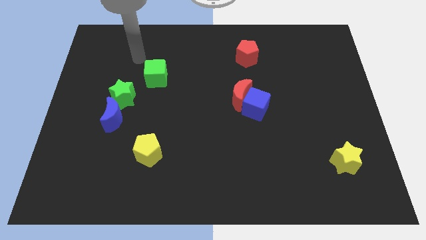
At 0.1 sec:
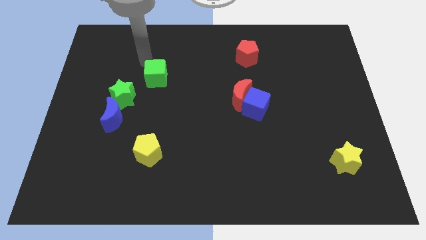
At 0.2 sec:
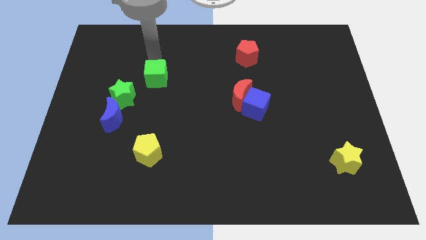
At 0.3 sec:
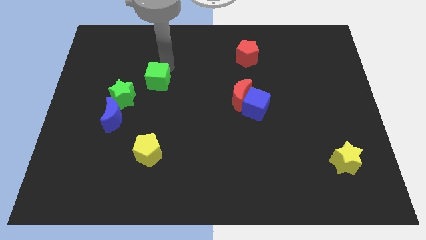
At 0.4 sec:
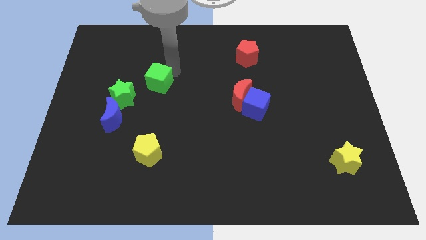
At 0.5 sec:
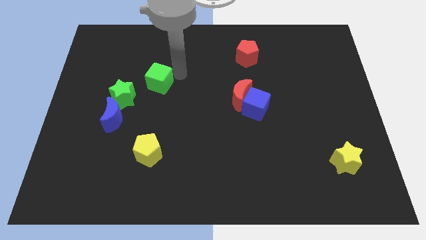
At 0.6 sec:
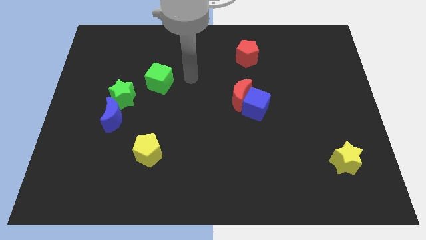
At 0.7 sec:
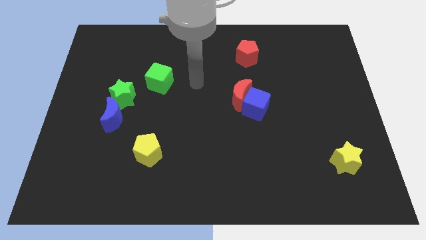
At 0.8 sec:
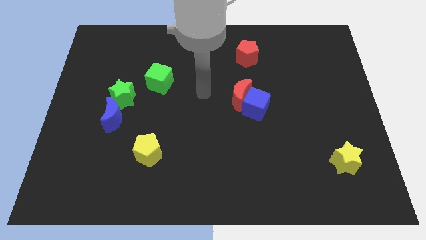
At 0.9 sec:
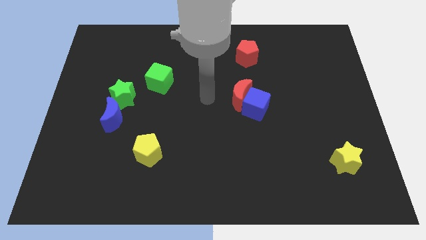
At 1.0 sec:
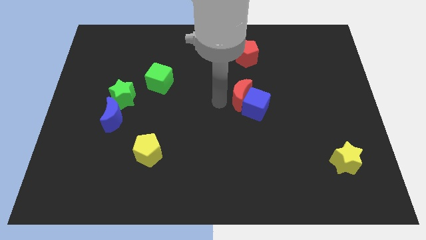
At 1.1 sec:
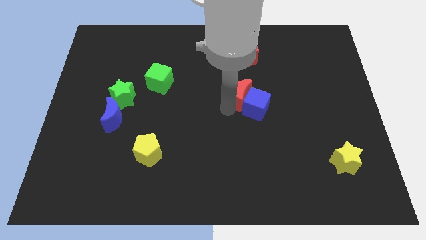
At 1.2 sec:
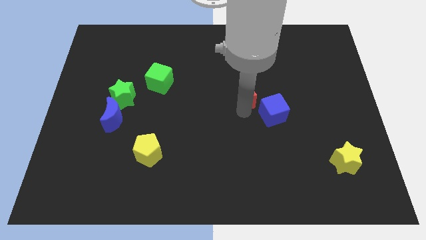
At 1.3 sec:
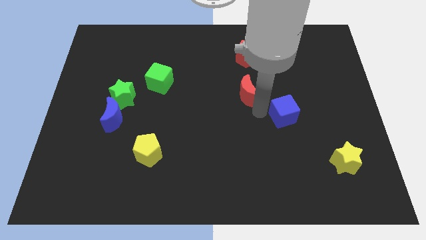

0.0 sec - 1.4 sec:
separate the red moon from the blue cube

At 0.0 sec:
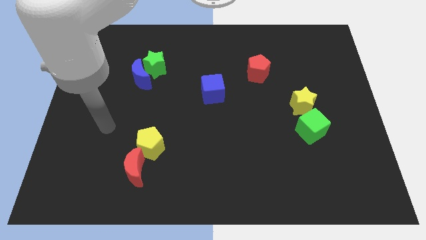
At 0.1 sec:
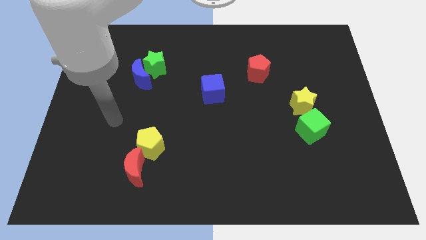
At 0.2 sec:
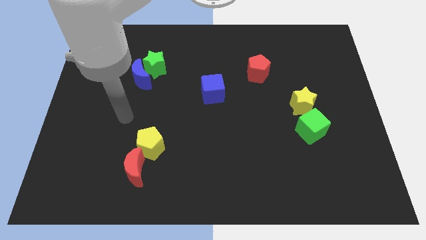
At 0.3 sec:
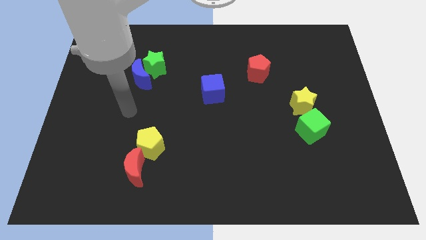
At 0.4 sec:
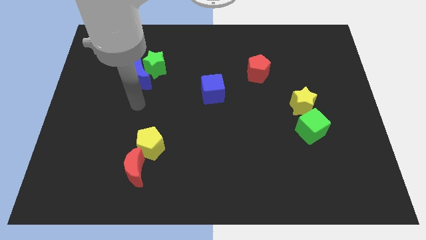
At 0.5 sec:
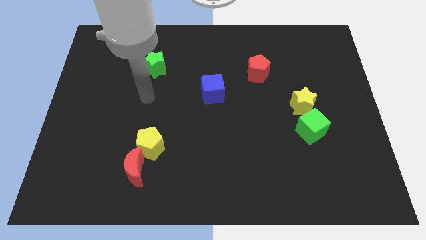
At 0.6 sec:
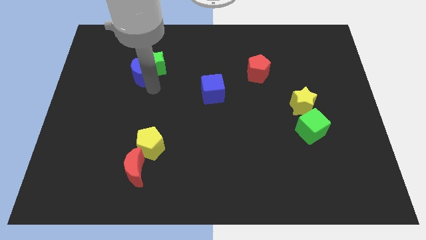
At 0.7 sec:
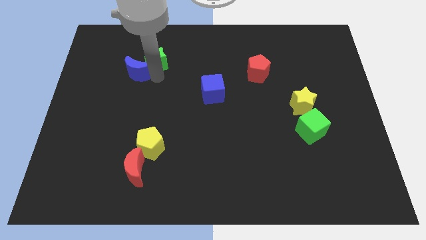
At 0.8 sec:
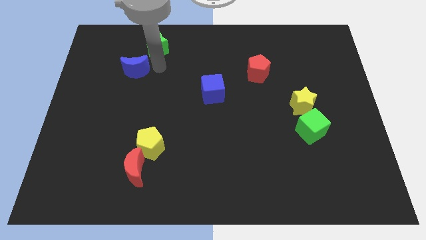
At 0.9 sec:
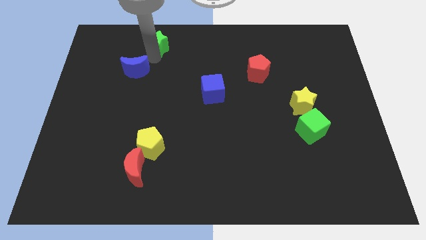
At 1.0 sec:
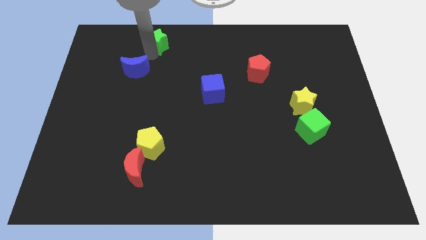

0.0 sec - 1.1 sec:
move the blue moon away from the green star

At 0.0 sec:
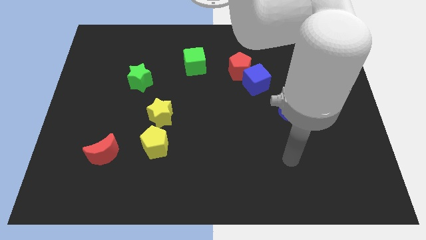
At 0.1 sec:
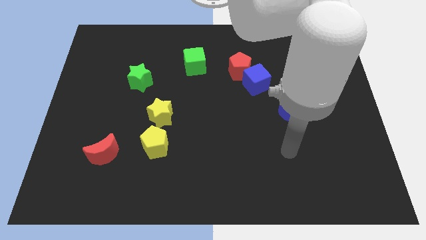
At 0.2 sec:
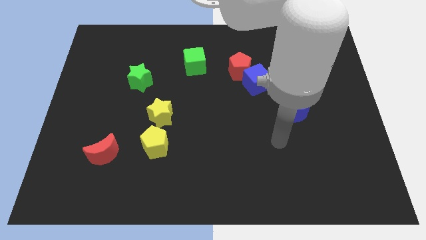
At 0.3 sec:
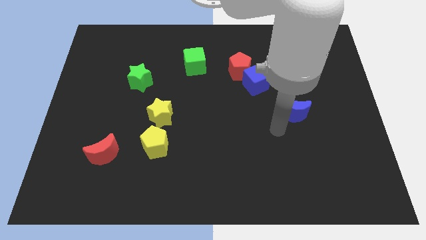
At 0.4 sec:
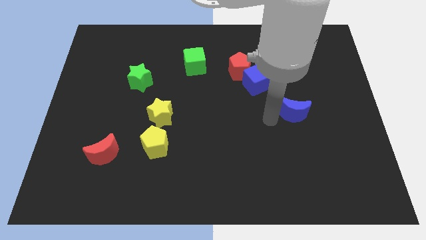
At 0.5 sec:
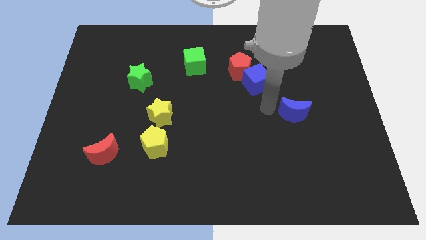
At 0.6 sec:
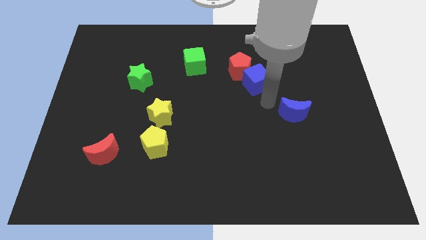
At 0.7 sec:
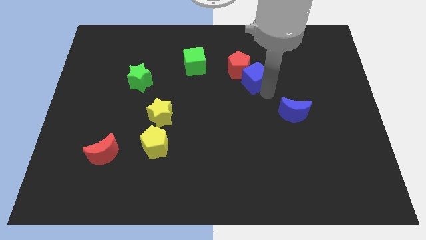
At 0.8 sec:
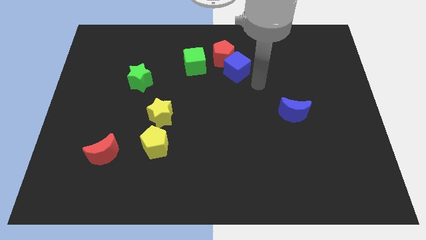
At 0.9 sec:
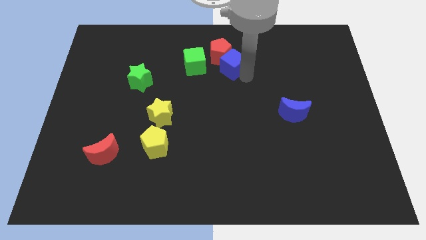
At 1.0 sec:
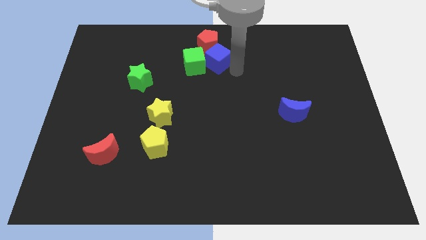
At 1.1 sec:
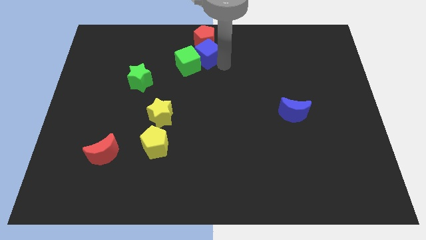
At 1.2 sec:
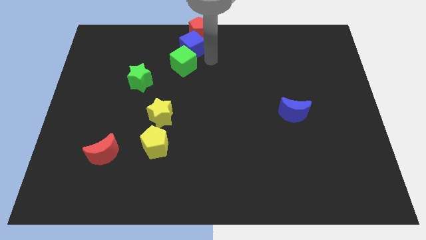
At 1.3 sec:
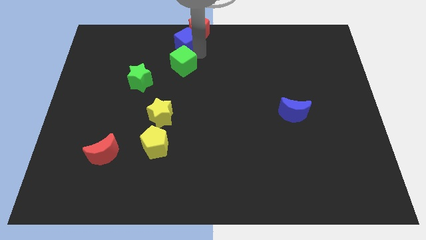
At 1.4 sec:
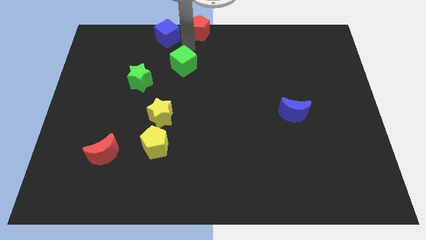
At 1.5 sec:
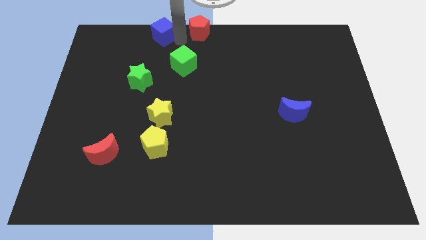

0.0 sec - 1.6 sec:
move the red pentagon away from the blue cube

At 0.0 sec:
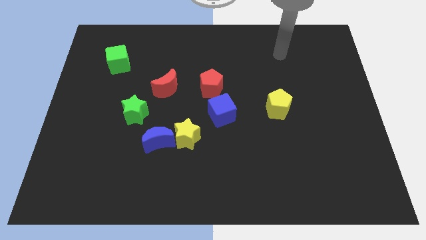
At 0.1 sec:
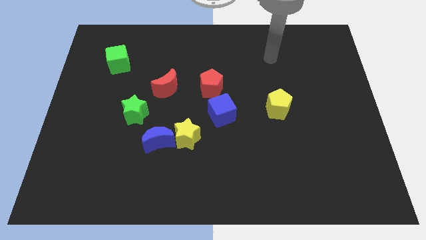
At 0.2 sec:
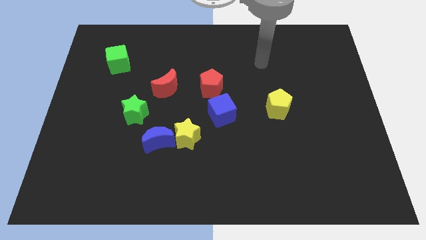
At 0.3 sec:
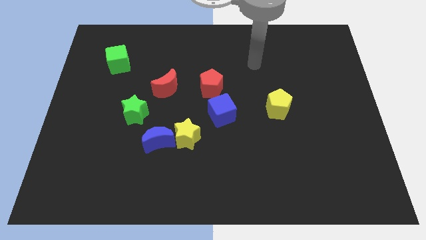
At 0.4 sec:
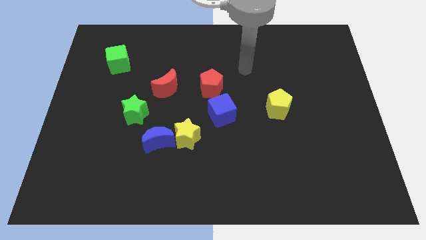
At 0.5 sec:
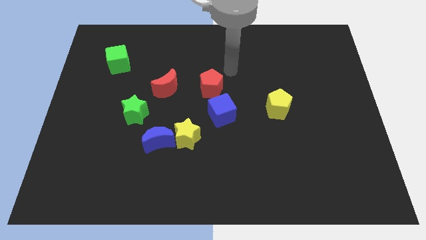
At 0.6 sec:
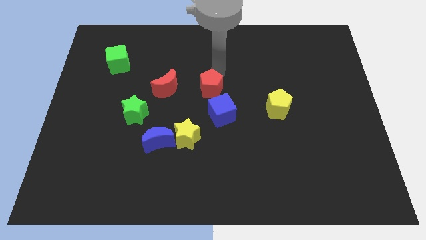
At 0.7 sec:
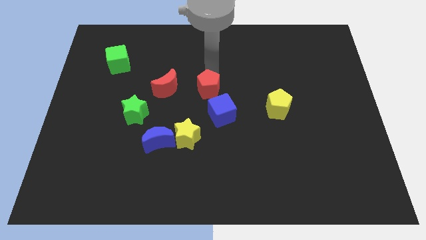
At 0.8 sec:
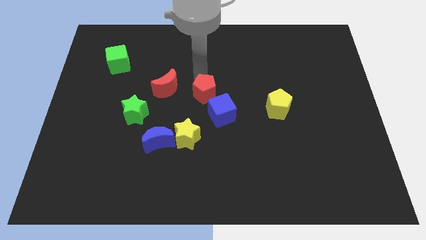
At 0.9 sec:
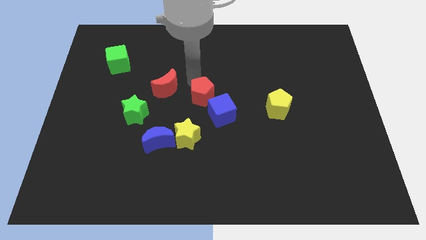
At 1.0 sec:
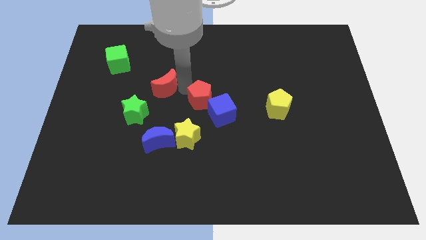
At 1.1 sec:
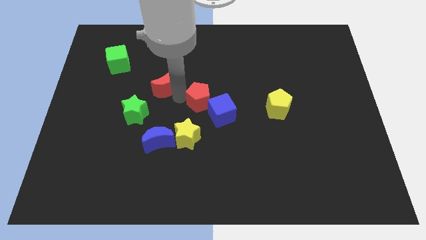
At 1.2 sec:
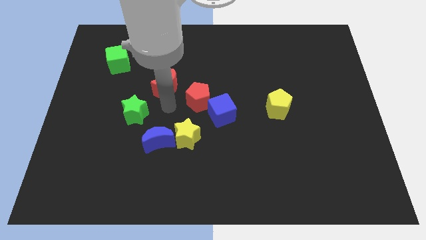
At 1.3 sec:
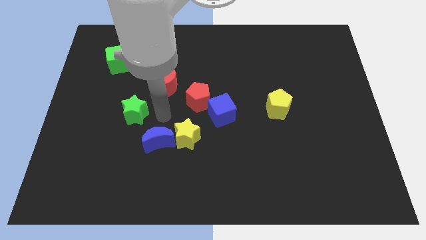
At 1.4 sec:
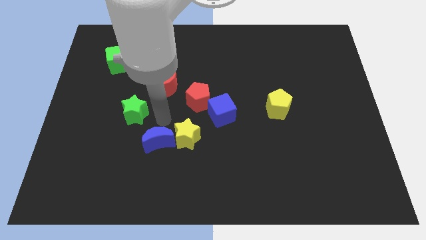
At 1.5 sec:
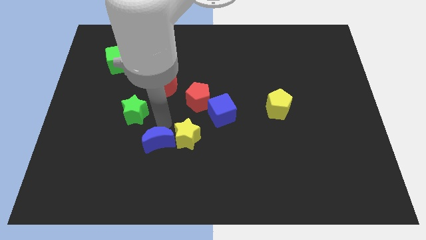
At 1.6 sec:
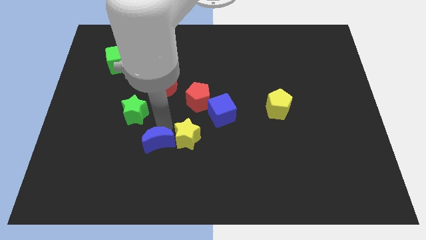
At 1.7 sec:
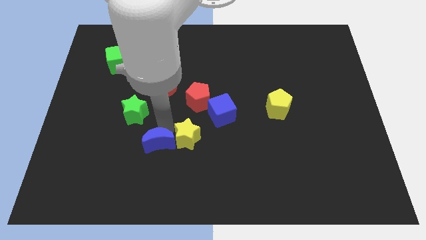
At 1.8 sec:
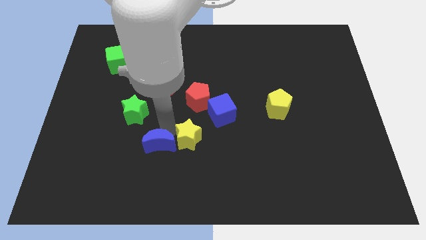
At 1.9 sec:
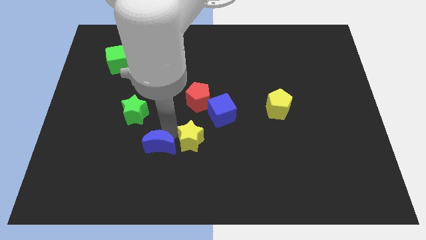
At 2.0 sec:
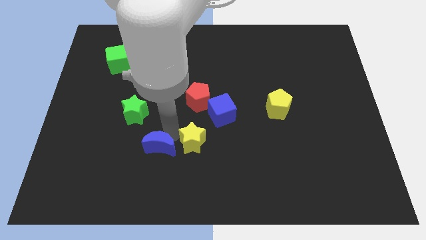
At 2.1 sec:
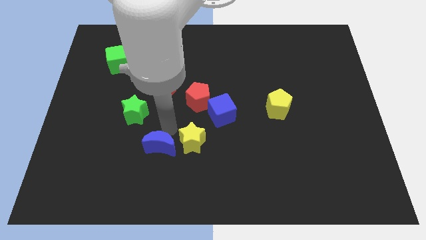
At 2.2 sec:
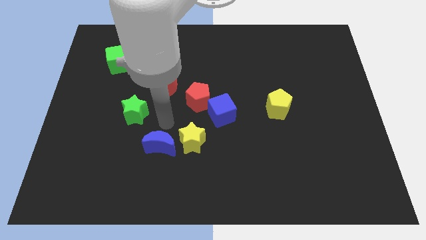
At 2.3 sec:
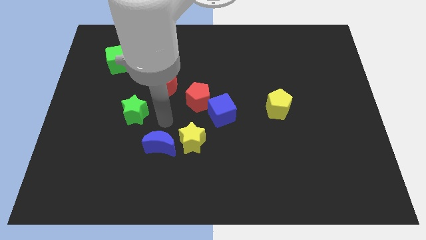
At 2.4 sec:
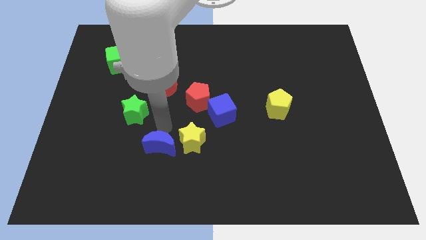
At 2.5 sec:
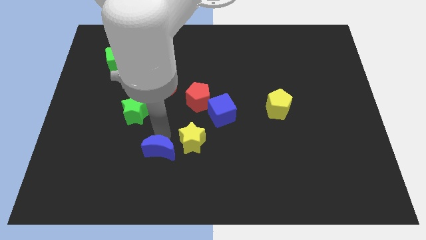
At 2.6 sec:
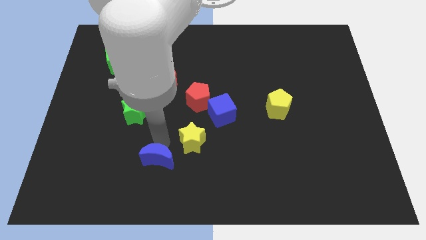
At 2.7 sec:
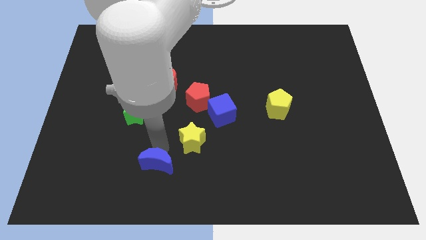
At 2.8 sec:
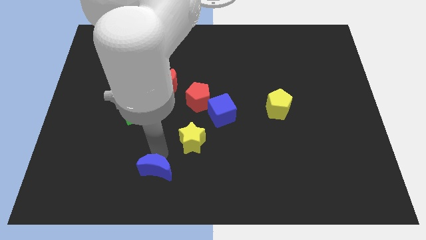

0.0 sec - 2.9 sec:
move the blue moon away from the yellow star and green star

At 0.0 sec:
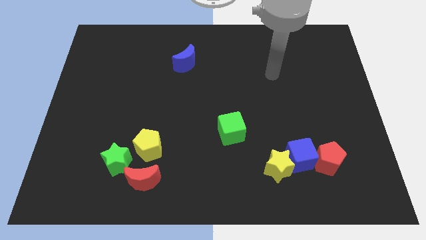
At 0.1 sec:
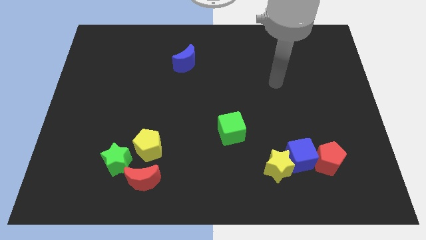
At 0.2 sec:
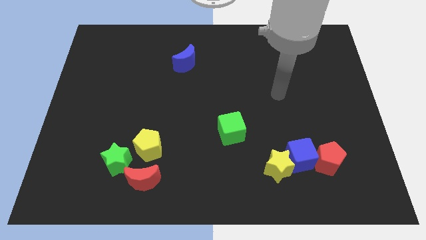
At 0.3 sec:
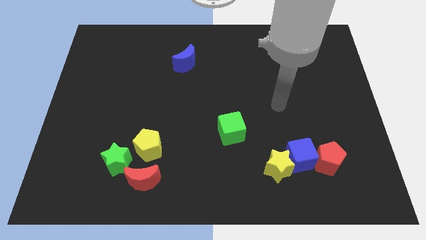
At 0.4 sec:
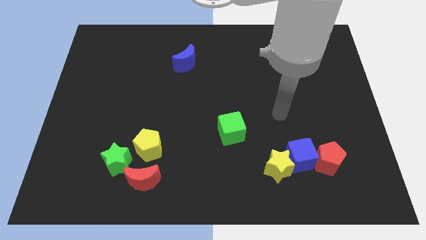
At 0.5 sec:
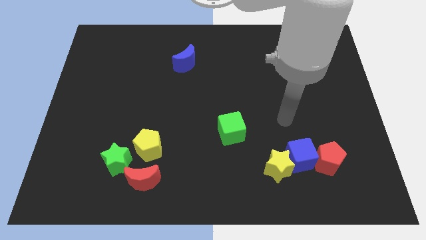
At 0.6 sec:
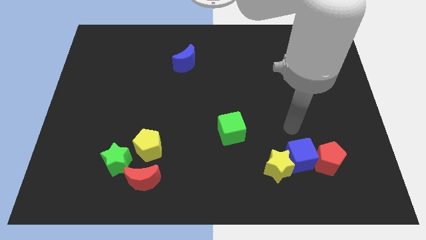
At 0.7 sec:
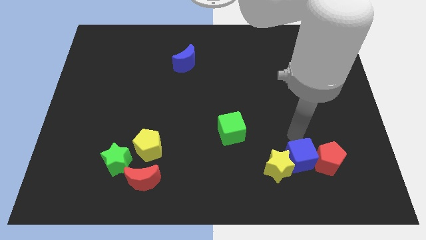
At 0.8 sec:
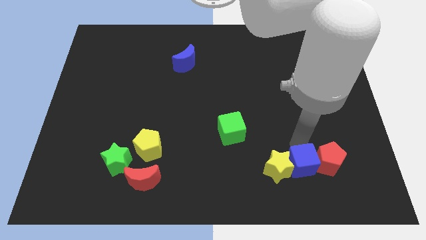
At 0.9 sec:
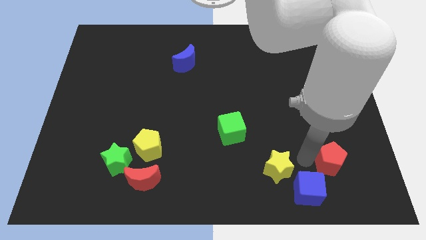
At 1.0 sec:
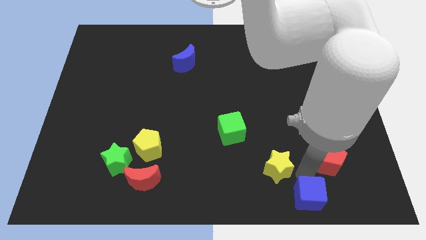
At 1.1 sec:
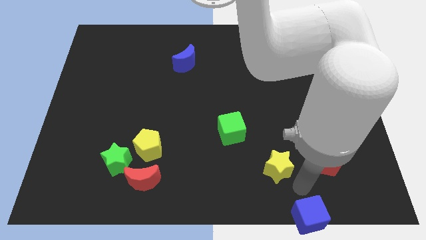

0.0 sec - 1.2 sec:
move the yellow star away from the blue cube

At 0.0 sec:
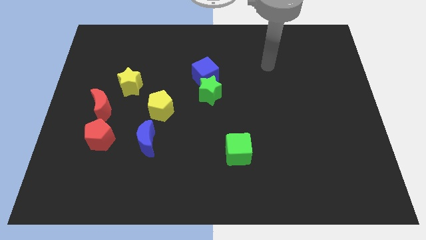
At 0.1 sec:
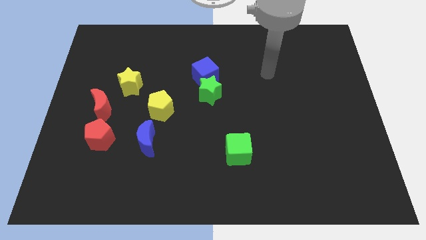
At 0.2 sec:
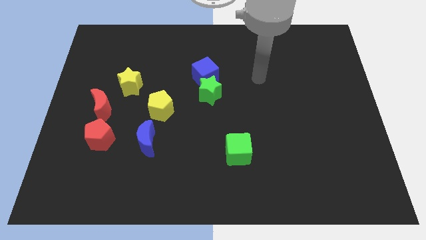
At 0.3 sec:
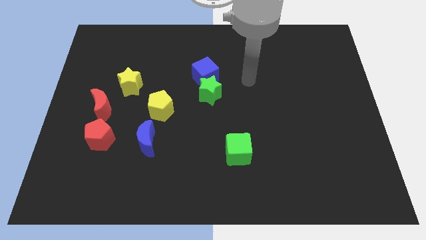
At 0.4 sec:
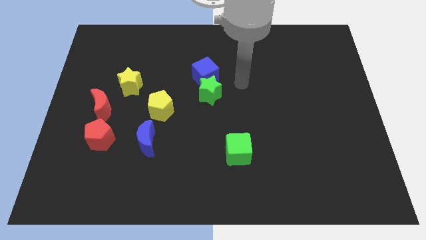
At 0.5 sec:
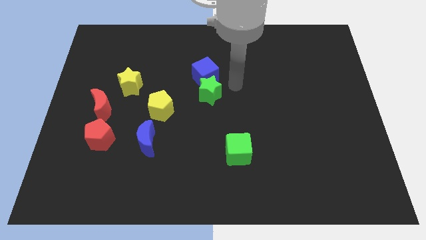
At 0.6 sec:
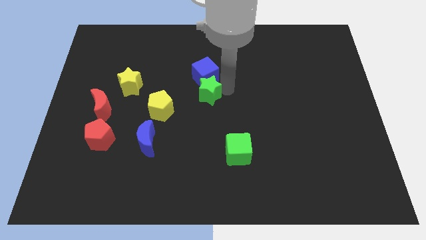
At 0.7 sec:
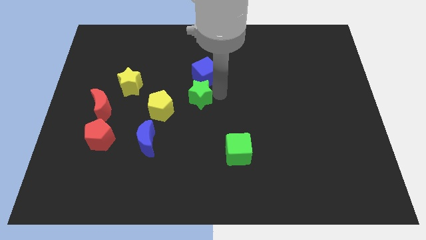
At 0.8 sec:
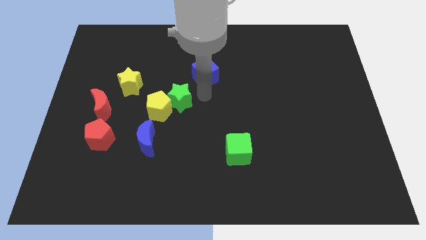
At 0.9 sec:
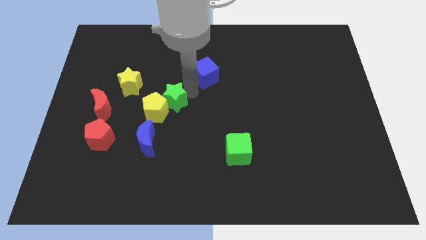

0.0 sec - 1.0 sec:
separate the blue cube from the green star
